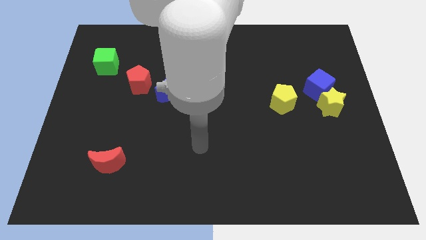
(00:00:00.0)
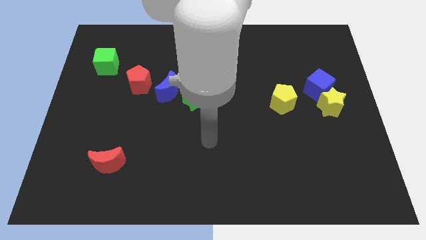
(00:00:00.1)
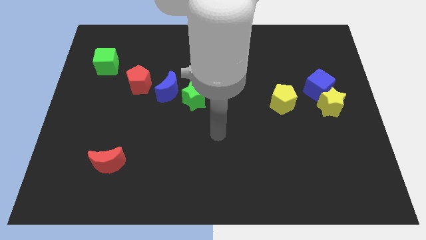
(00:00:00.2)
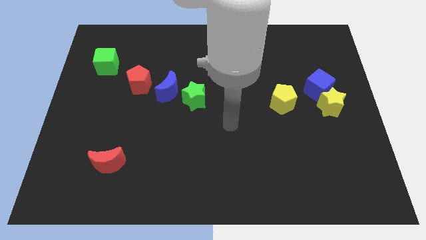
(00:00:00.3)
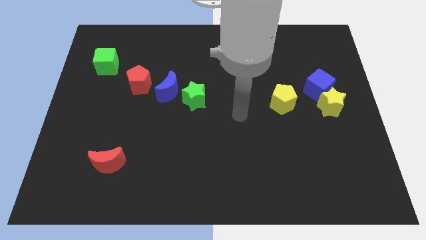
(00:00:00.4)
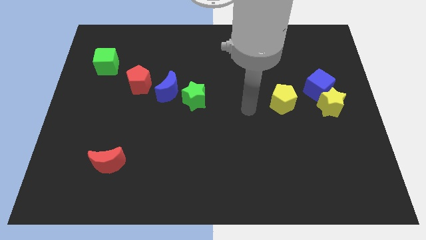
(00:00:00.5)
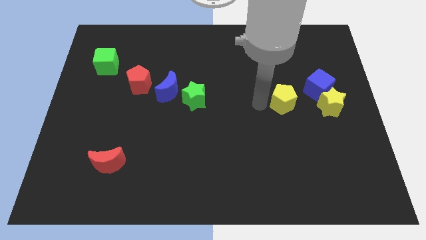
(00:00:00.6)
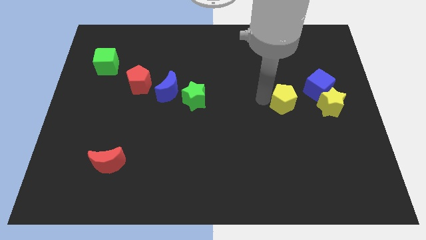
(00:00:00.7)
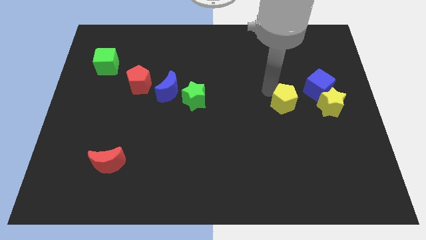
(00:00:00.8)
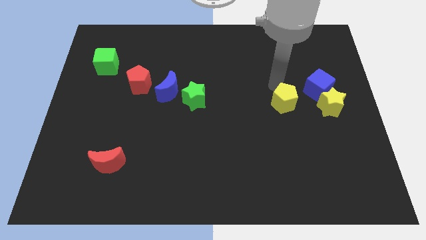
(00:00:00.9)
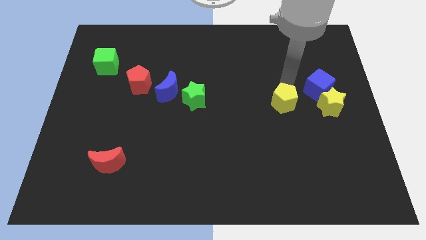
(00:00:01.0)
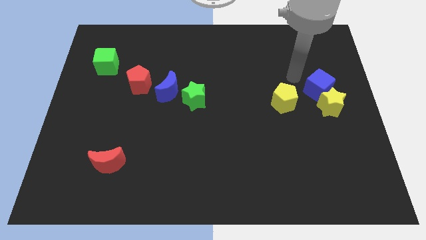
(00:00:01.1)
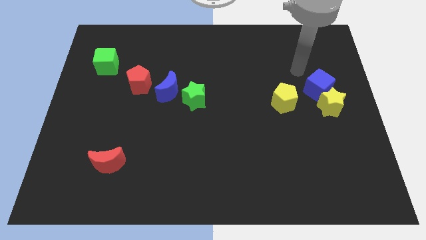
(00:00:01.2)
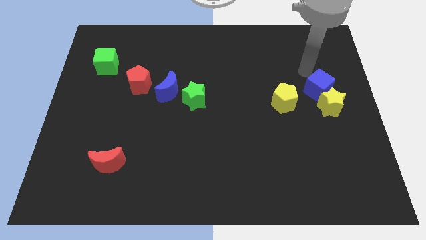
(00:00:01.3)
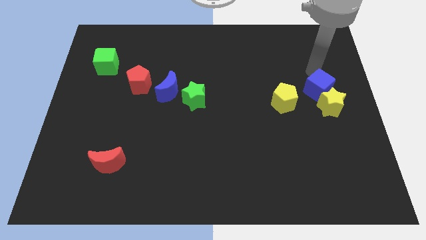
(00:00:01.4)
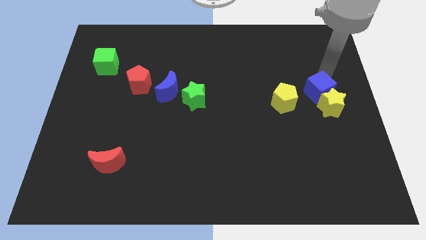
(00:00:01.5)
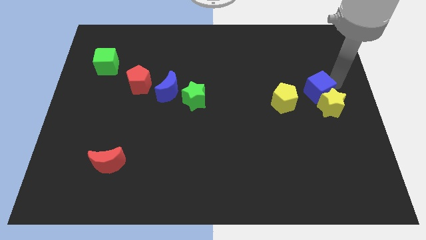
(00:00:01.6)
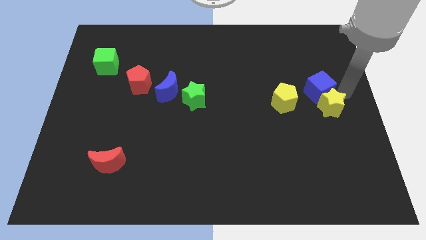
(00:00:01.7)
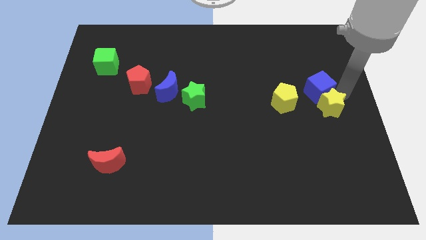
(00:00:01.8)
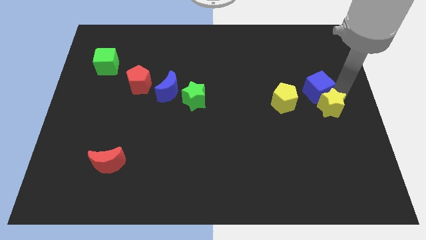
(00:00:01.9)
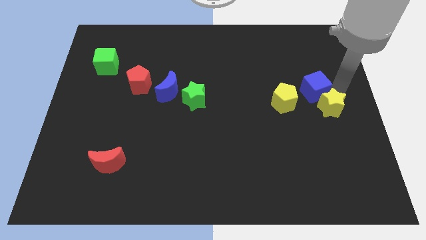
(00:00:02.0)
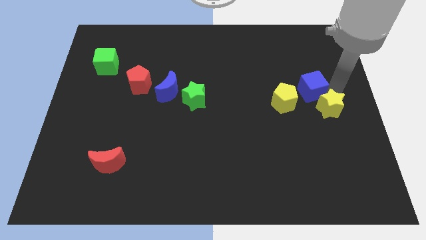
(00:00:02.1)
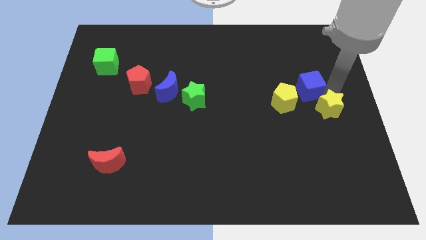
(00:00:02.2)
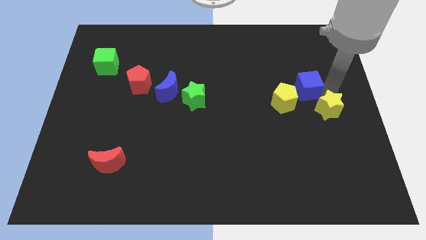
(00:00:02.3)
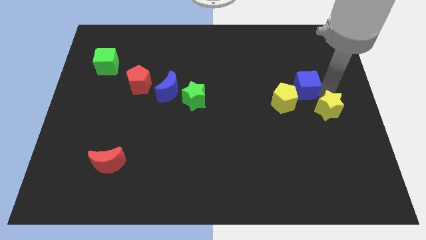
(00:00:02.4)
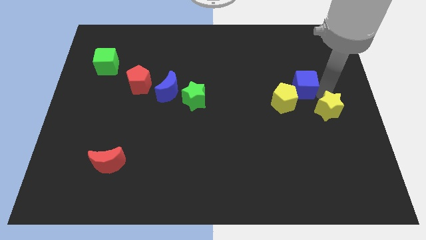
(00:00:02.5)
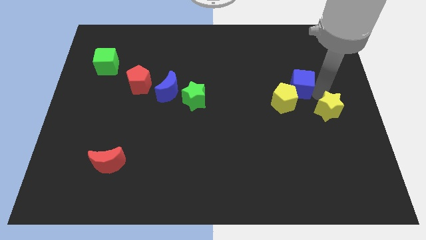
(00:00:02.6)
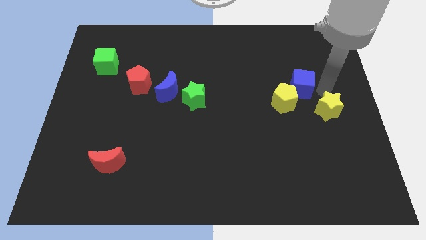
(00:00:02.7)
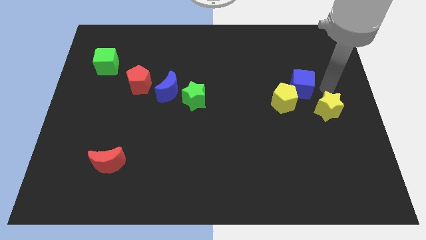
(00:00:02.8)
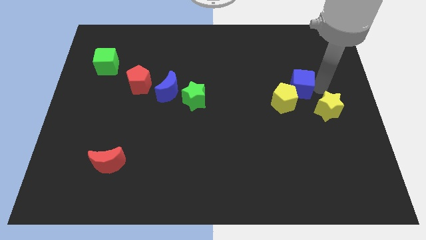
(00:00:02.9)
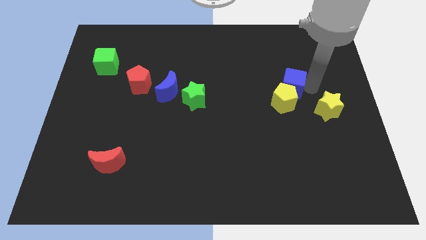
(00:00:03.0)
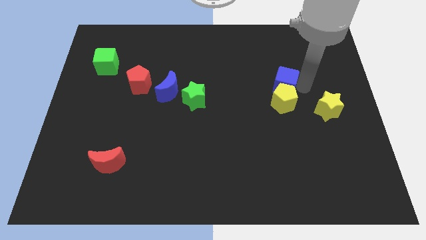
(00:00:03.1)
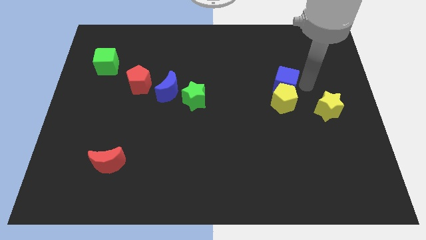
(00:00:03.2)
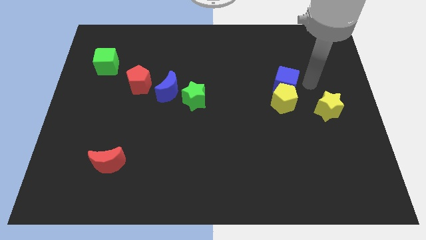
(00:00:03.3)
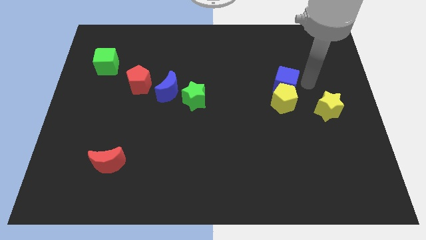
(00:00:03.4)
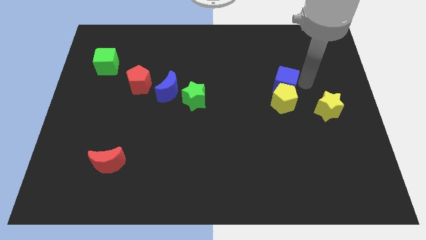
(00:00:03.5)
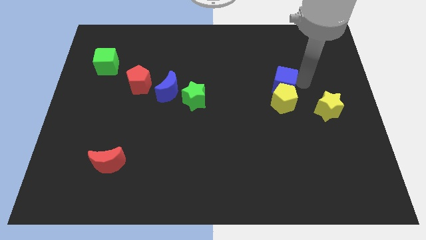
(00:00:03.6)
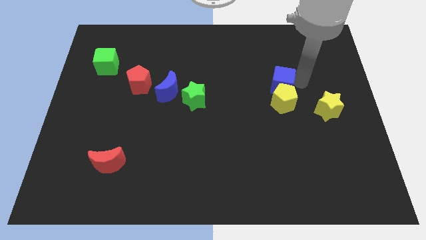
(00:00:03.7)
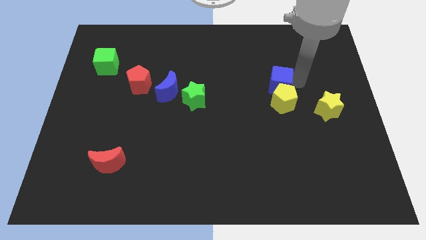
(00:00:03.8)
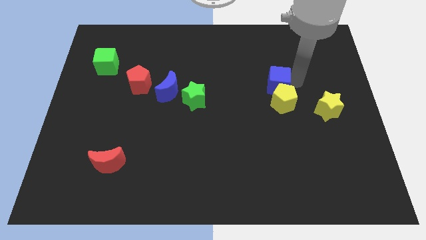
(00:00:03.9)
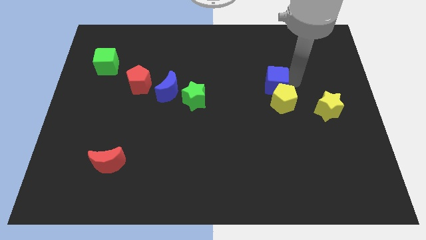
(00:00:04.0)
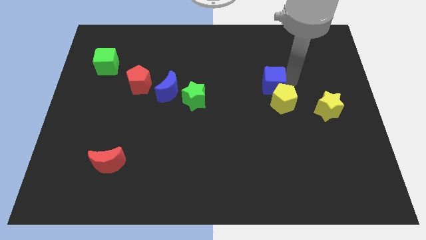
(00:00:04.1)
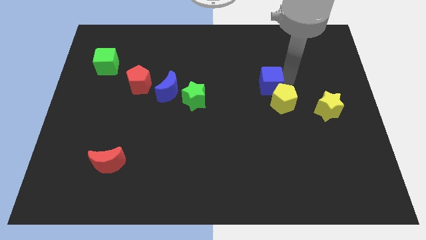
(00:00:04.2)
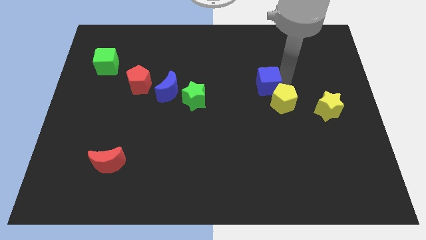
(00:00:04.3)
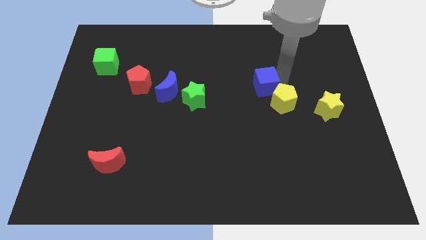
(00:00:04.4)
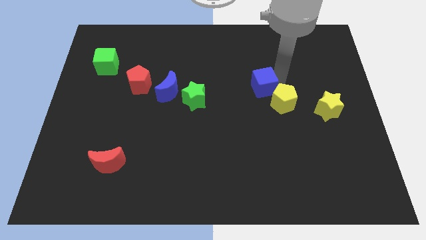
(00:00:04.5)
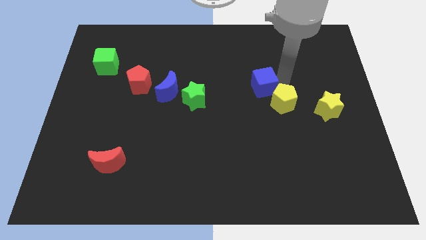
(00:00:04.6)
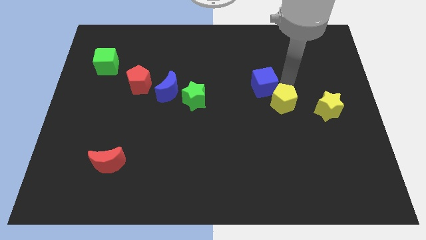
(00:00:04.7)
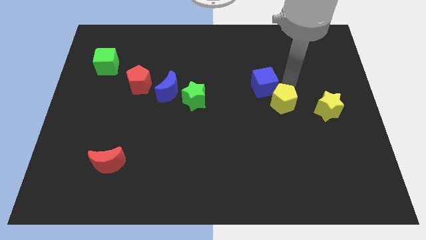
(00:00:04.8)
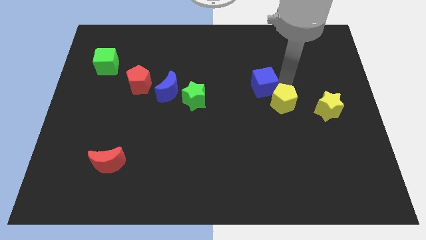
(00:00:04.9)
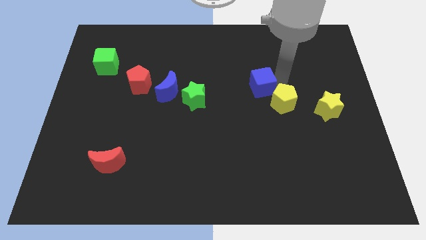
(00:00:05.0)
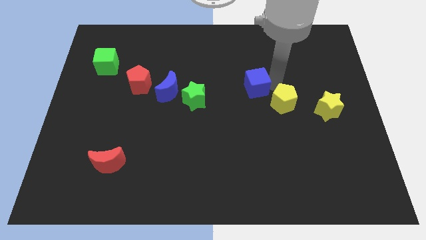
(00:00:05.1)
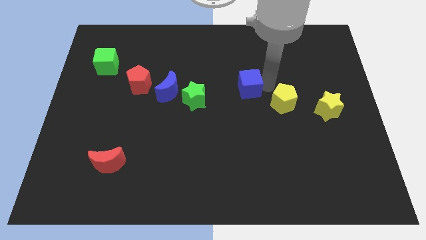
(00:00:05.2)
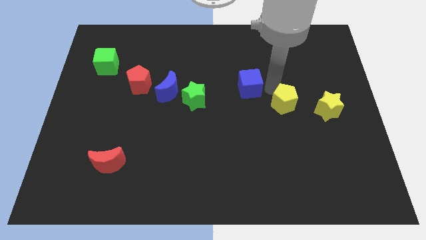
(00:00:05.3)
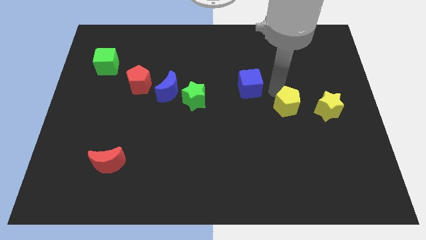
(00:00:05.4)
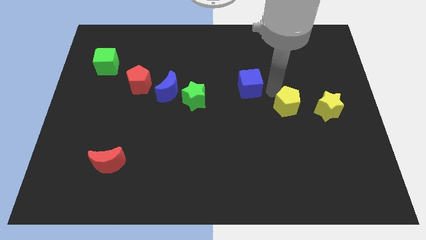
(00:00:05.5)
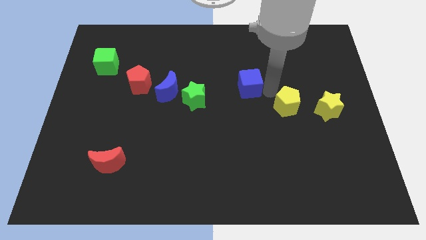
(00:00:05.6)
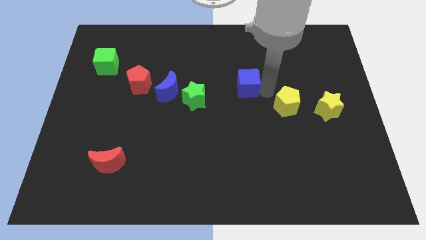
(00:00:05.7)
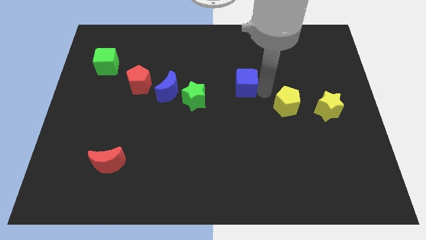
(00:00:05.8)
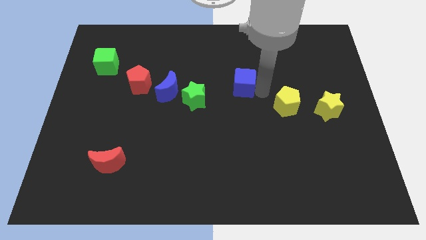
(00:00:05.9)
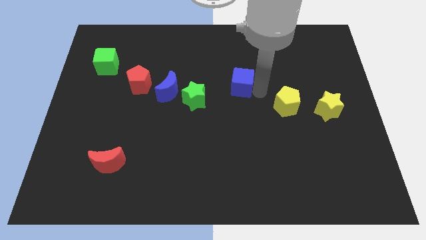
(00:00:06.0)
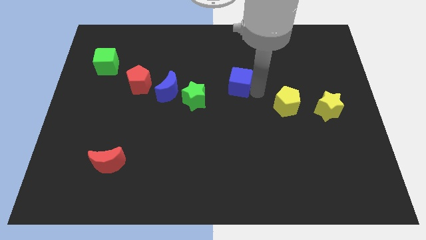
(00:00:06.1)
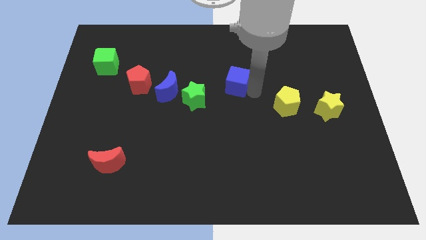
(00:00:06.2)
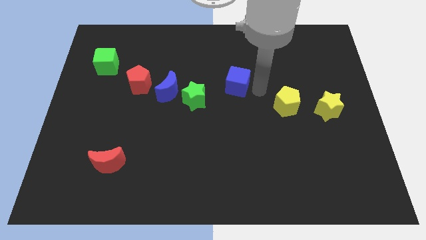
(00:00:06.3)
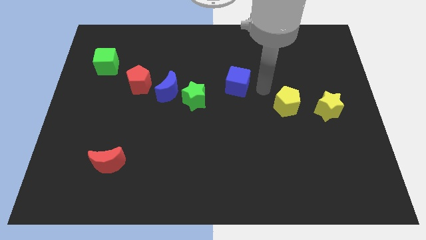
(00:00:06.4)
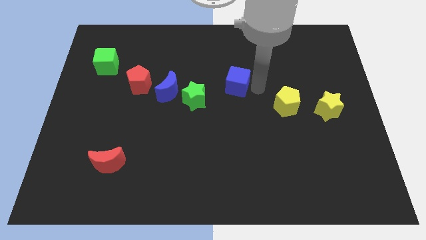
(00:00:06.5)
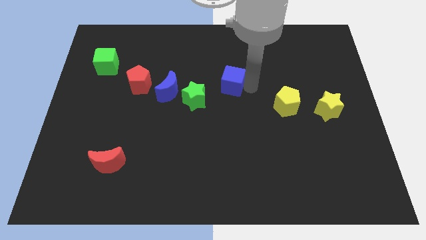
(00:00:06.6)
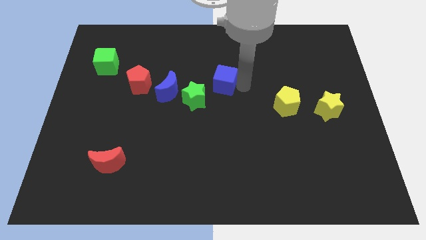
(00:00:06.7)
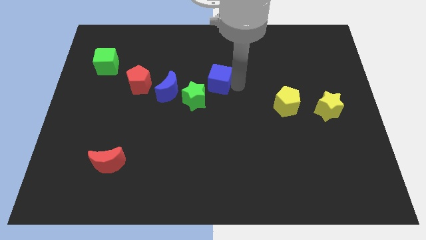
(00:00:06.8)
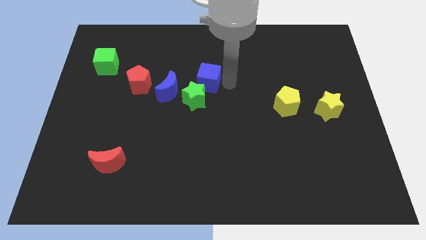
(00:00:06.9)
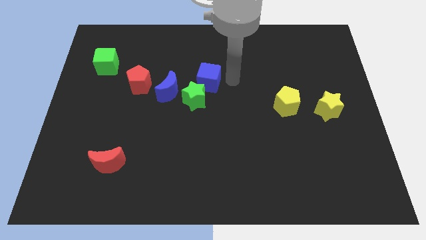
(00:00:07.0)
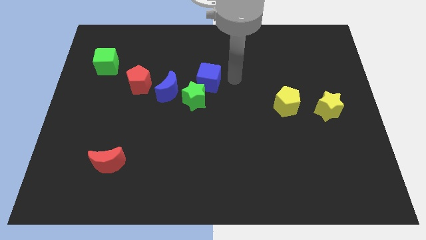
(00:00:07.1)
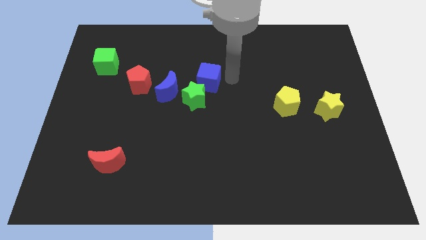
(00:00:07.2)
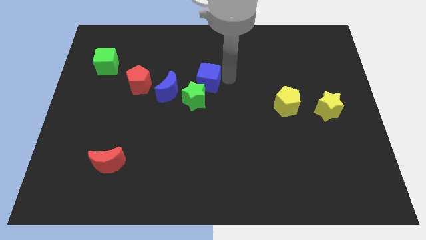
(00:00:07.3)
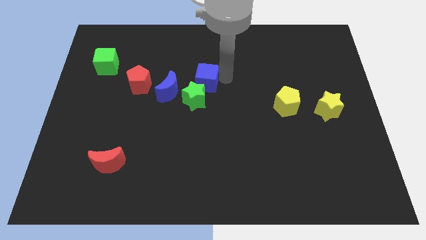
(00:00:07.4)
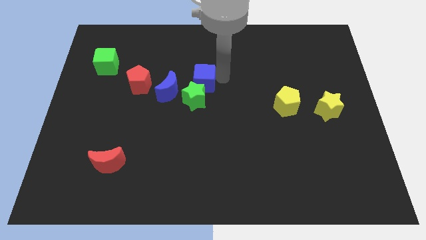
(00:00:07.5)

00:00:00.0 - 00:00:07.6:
slide the blue cube to the right side of the red pentagon

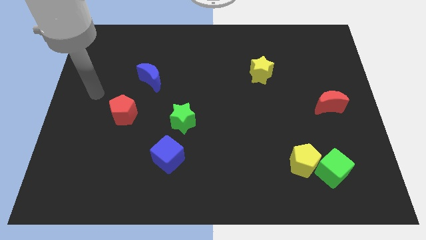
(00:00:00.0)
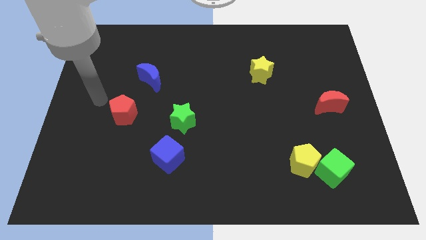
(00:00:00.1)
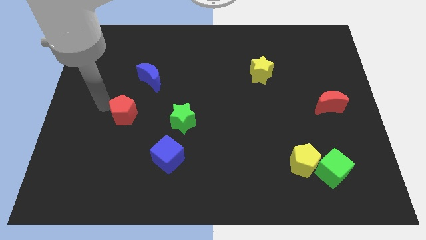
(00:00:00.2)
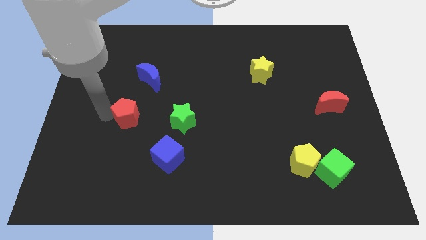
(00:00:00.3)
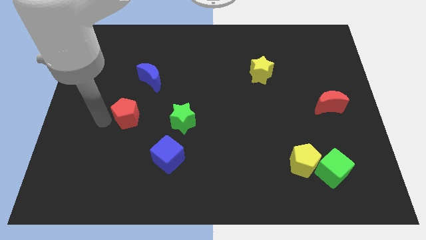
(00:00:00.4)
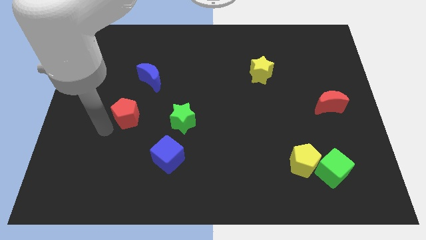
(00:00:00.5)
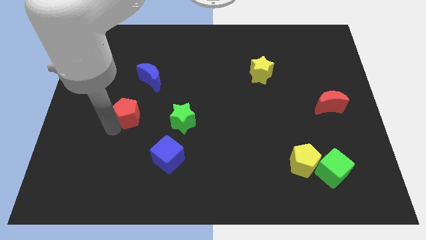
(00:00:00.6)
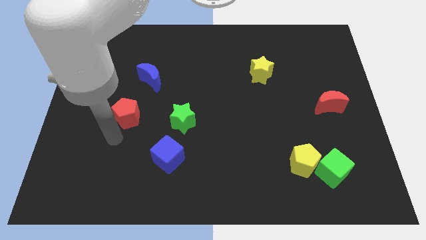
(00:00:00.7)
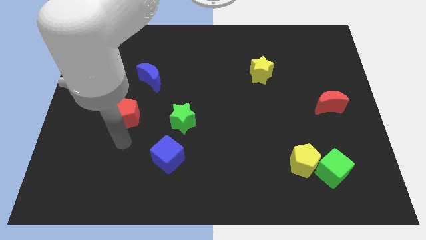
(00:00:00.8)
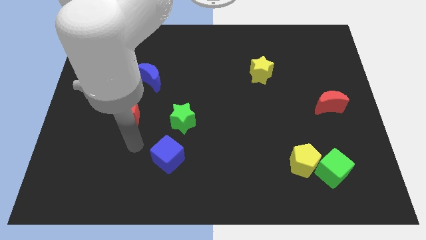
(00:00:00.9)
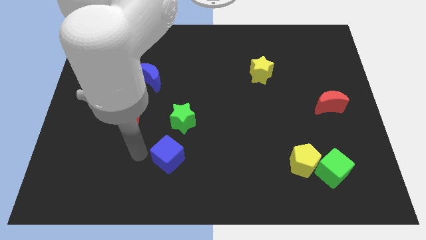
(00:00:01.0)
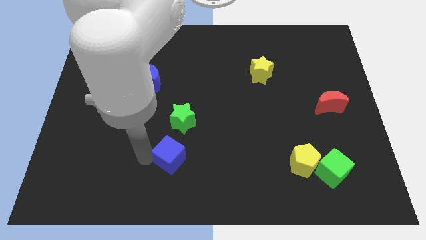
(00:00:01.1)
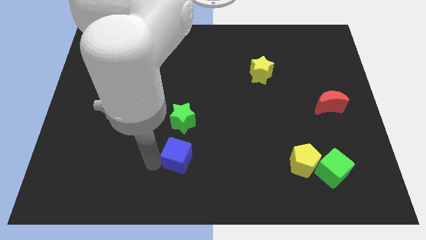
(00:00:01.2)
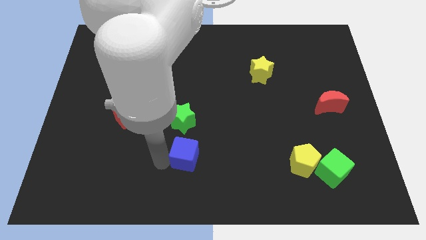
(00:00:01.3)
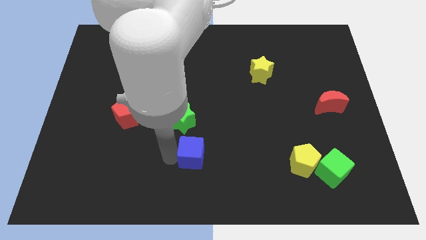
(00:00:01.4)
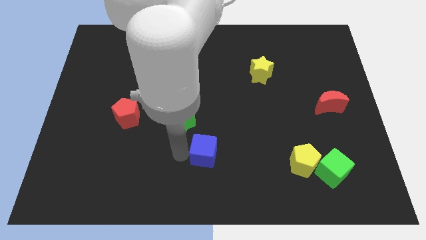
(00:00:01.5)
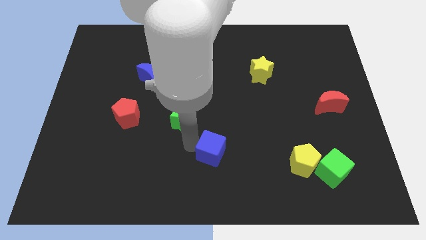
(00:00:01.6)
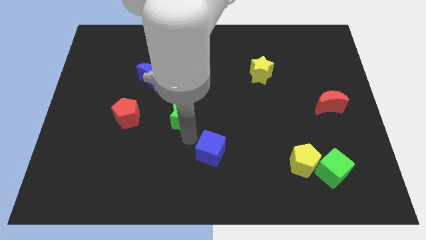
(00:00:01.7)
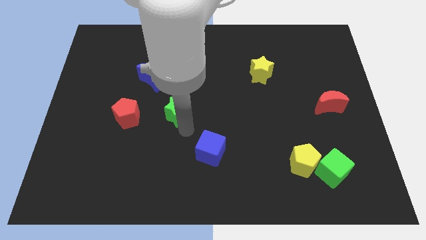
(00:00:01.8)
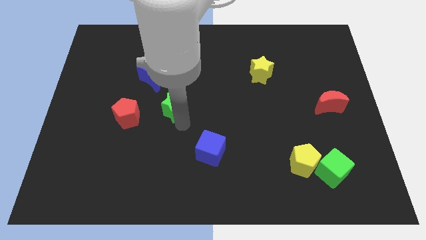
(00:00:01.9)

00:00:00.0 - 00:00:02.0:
slide the green star to the bottom right side of the blue moon
